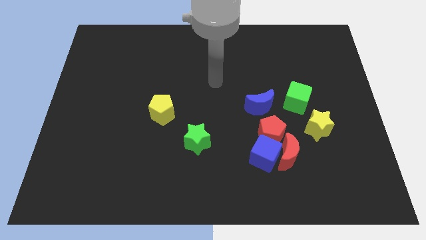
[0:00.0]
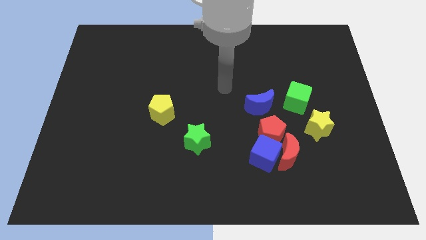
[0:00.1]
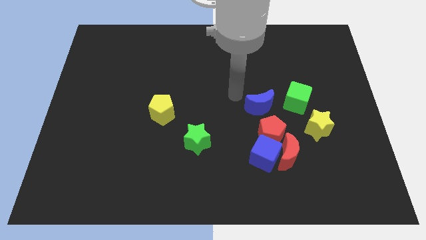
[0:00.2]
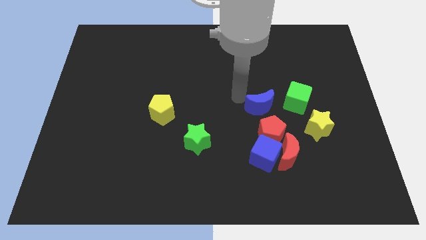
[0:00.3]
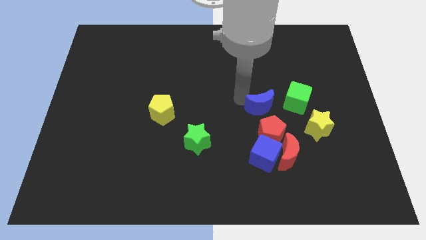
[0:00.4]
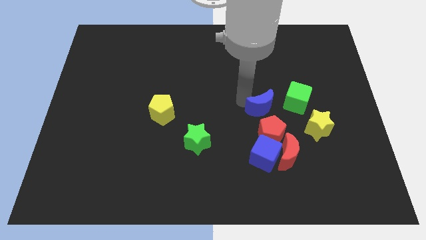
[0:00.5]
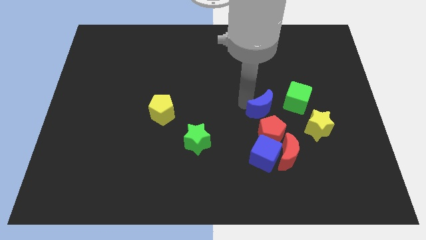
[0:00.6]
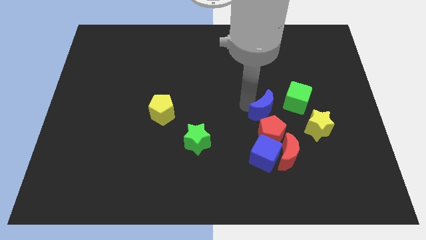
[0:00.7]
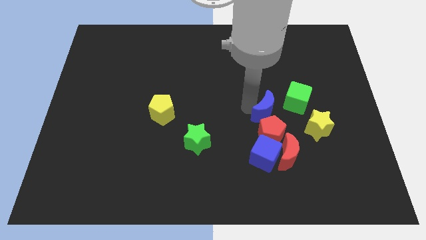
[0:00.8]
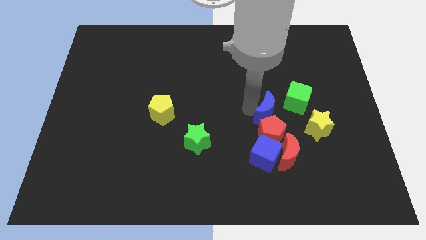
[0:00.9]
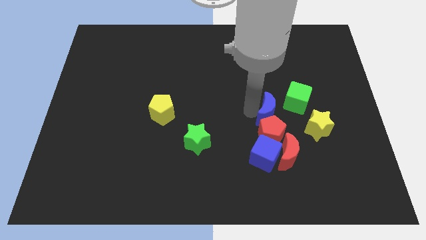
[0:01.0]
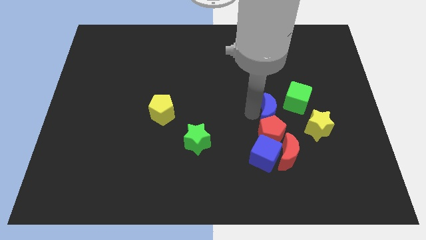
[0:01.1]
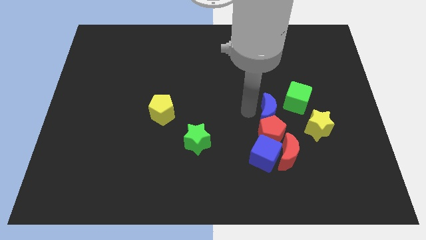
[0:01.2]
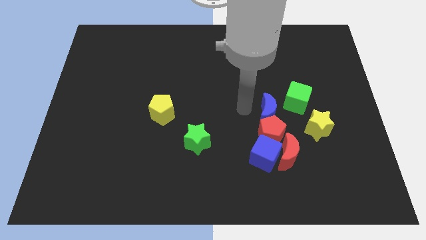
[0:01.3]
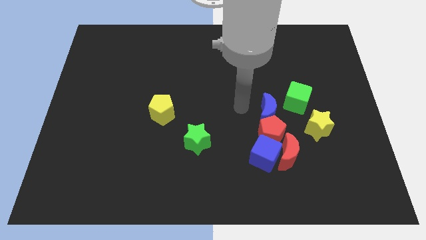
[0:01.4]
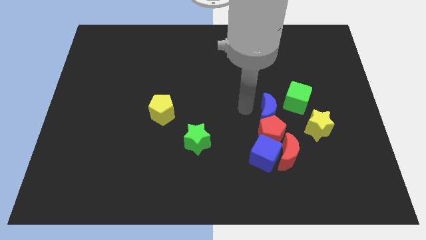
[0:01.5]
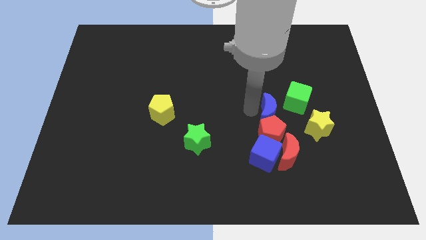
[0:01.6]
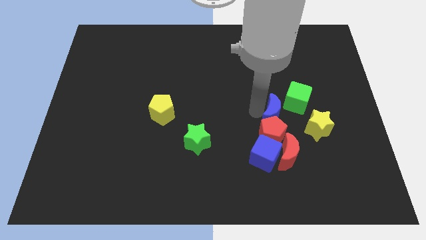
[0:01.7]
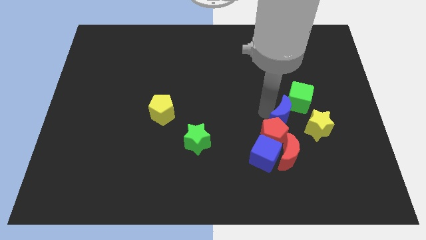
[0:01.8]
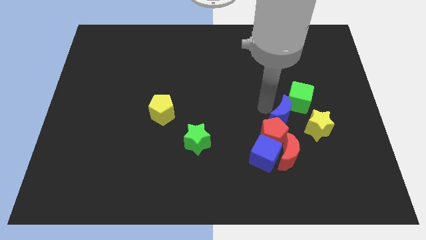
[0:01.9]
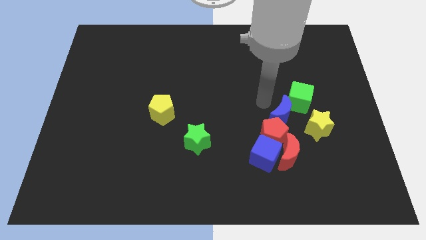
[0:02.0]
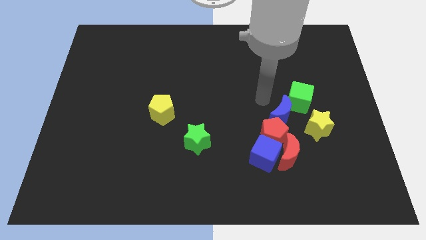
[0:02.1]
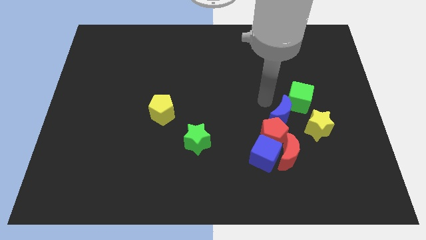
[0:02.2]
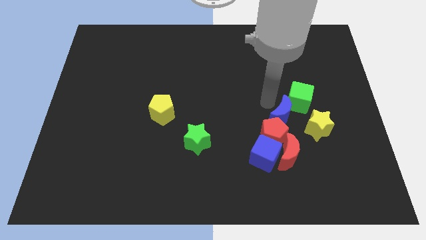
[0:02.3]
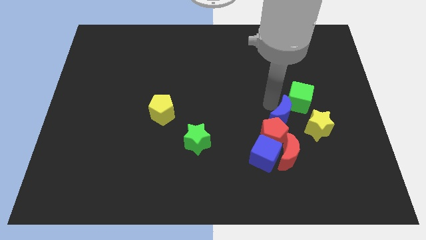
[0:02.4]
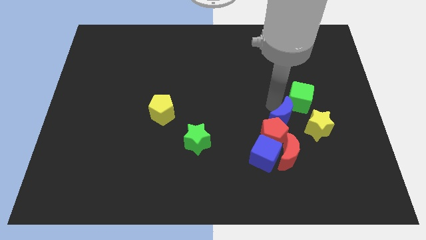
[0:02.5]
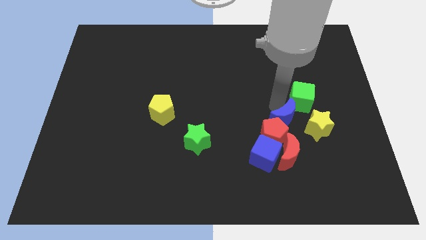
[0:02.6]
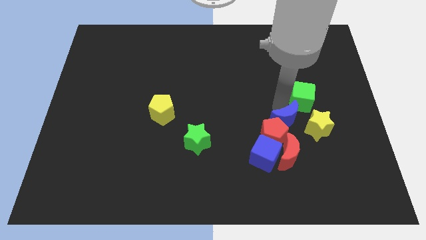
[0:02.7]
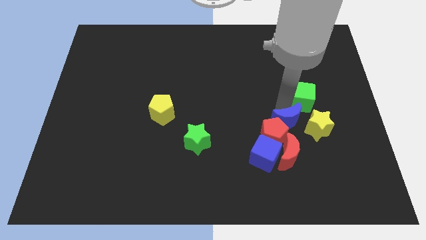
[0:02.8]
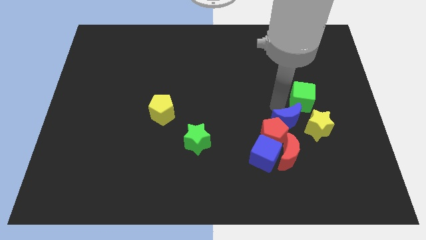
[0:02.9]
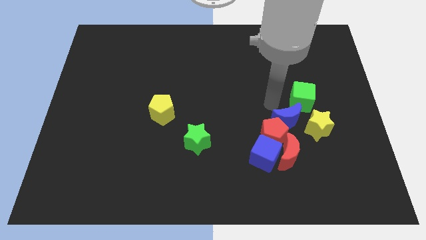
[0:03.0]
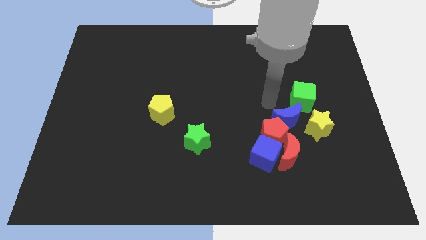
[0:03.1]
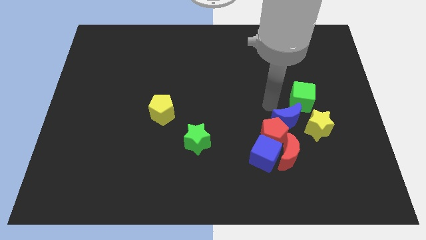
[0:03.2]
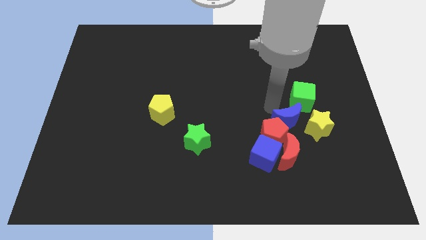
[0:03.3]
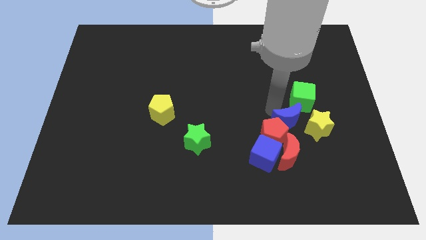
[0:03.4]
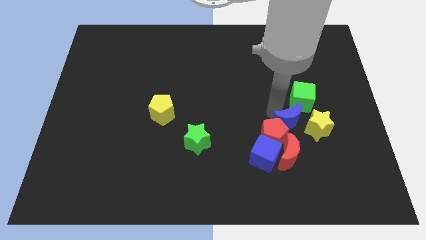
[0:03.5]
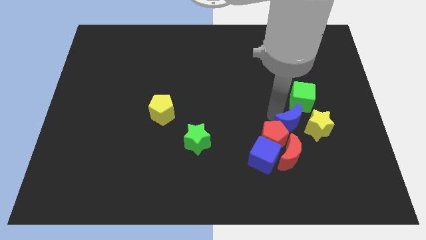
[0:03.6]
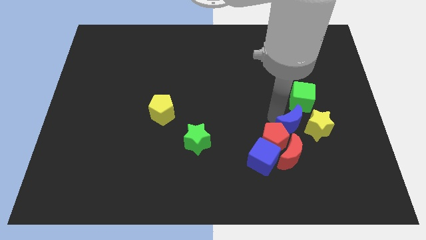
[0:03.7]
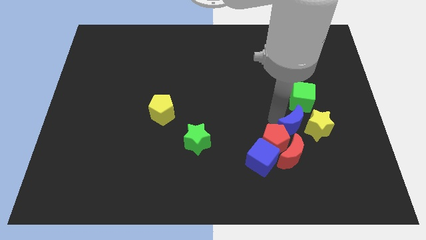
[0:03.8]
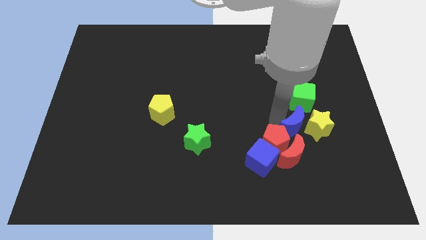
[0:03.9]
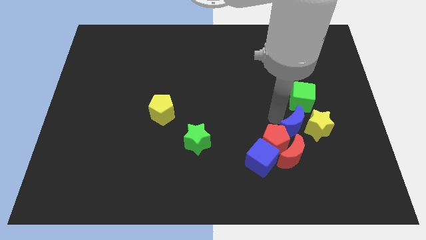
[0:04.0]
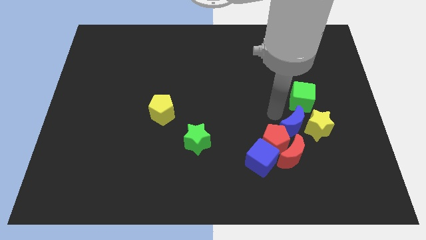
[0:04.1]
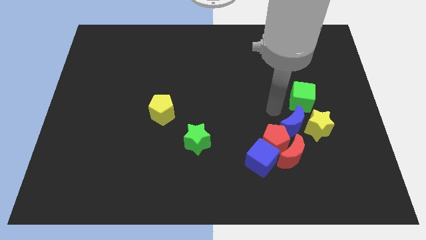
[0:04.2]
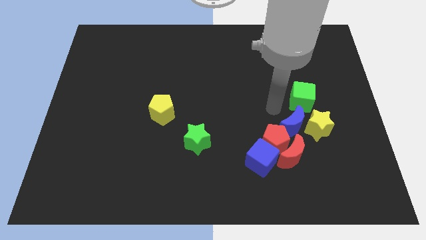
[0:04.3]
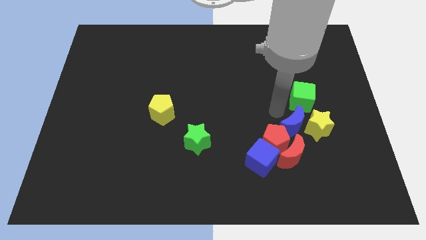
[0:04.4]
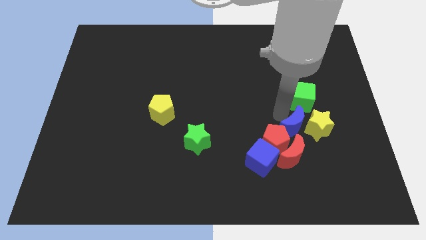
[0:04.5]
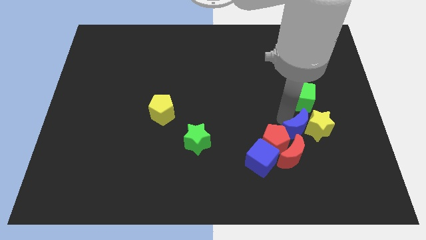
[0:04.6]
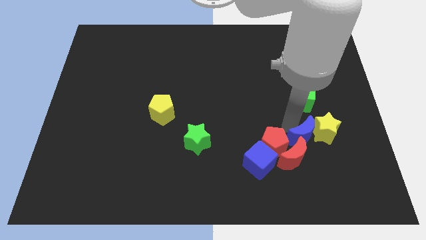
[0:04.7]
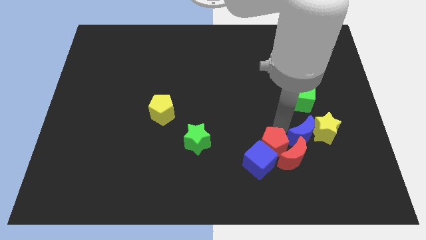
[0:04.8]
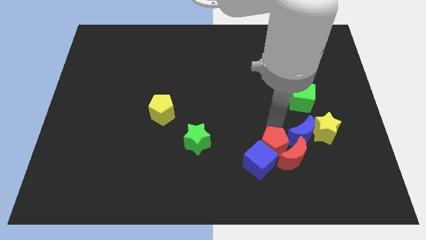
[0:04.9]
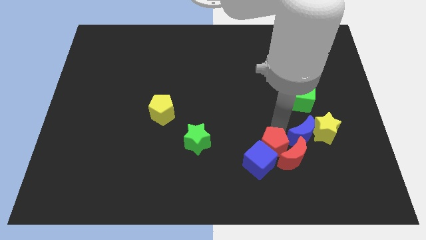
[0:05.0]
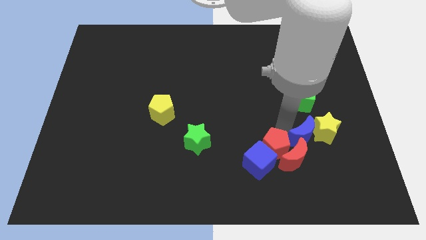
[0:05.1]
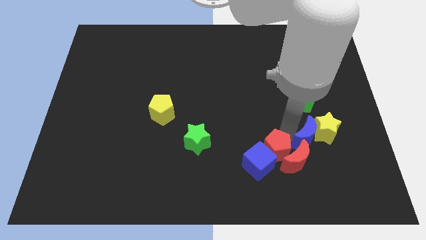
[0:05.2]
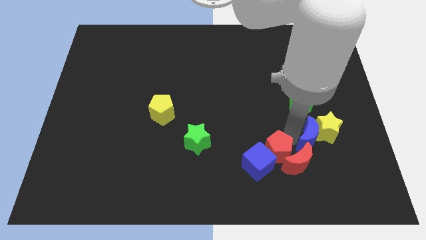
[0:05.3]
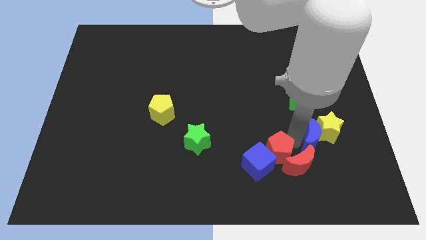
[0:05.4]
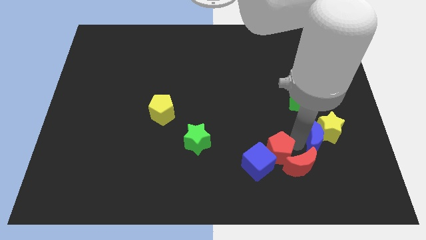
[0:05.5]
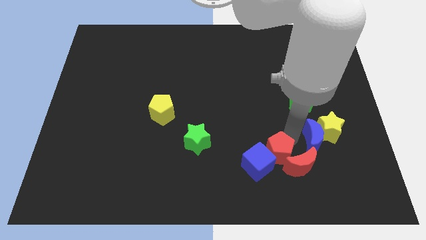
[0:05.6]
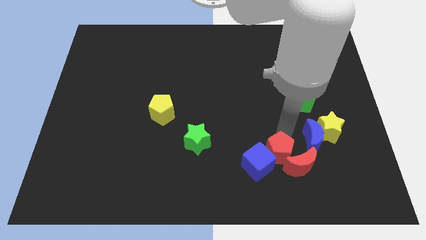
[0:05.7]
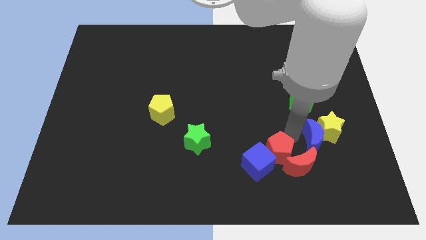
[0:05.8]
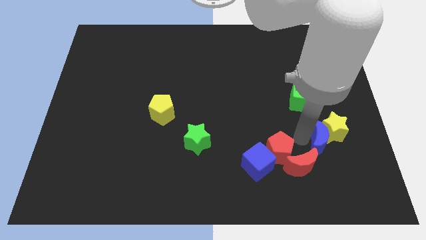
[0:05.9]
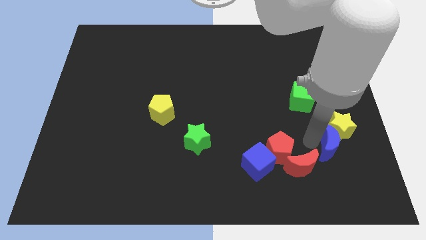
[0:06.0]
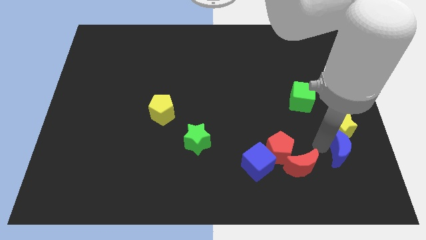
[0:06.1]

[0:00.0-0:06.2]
put the blue moon to the bottom right side of the yellow star
